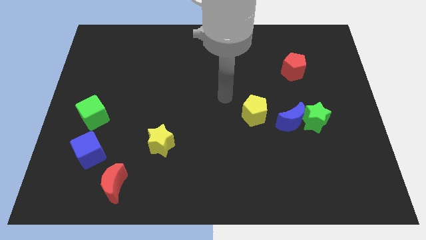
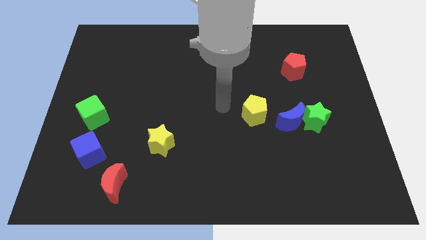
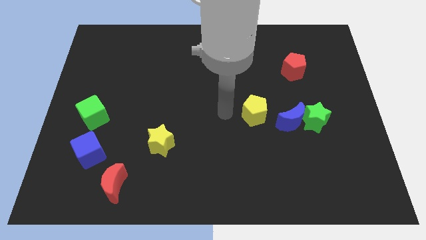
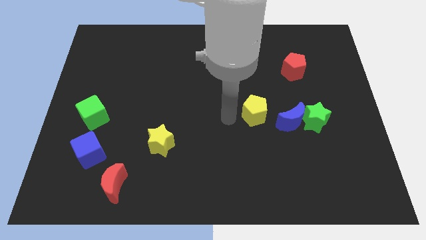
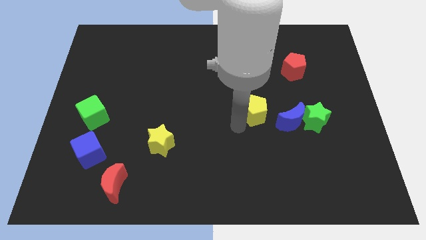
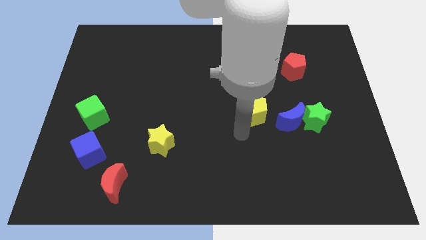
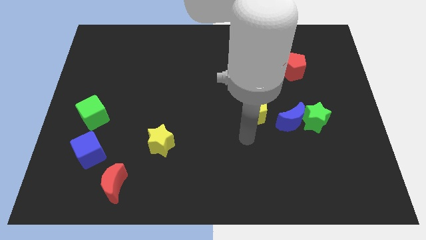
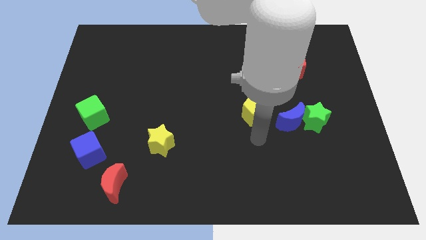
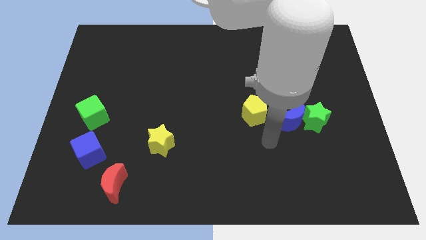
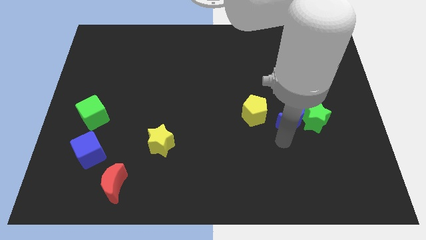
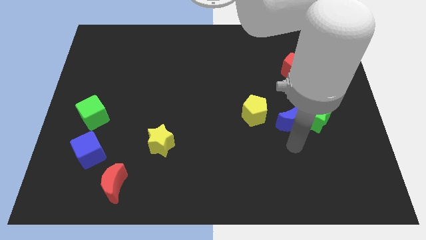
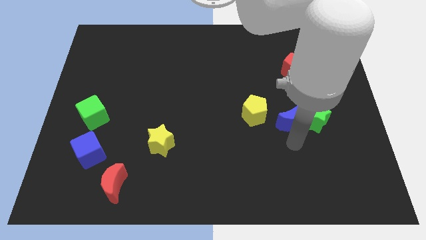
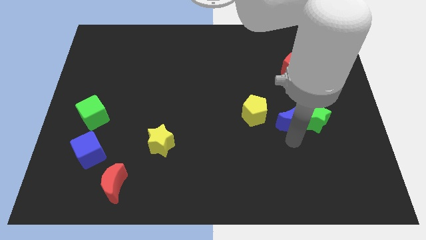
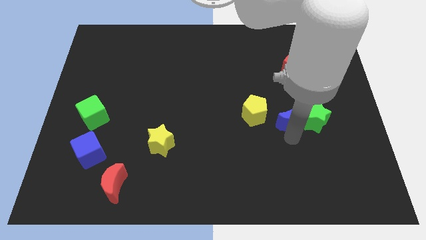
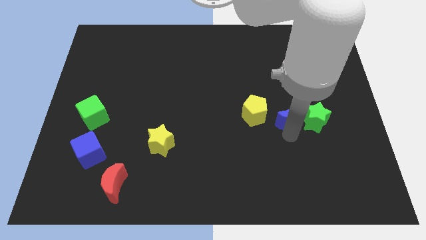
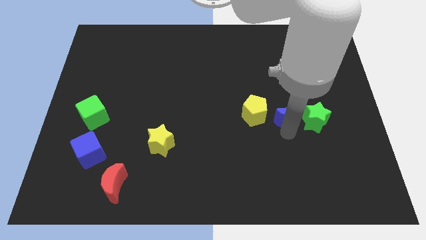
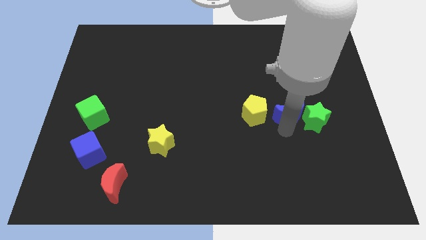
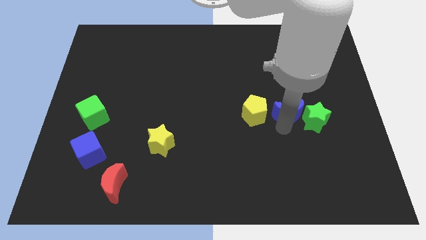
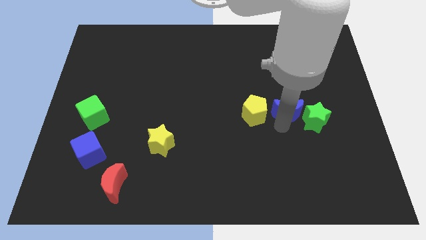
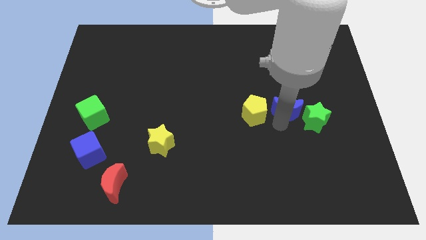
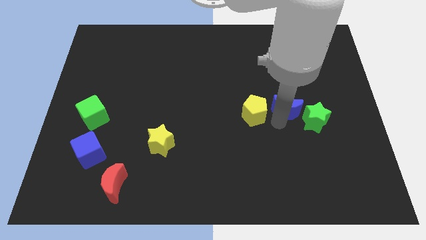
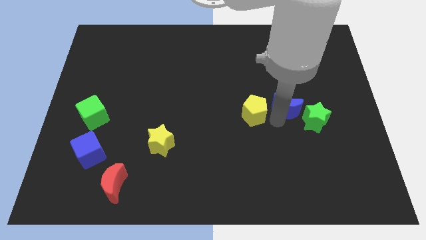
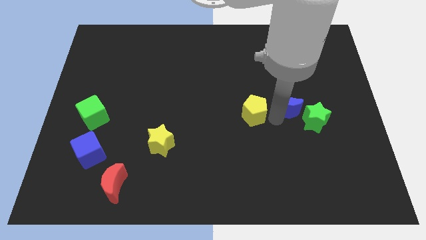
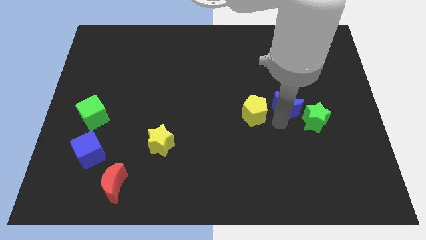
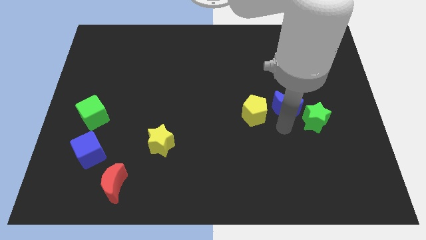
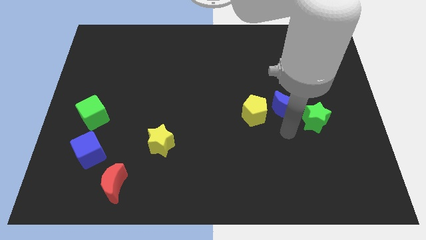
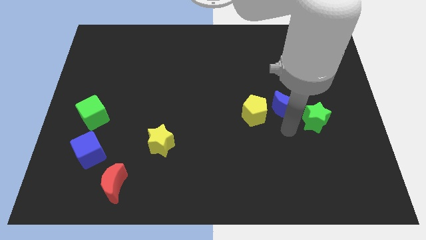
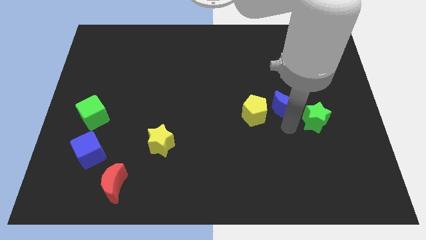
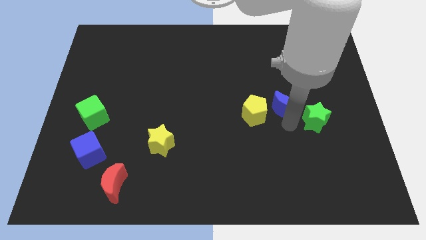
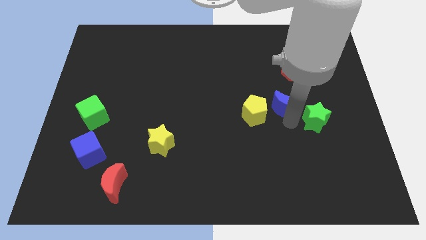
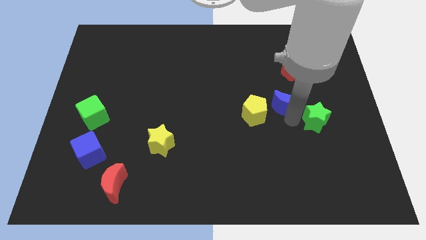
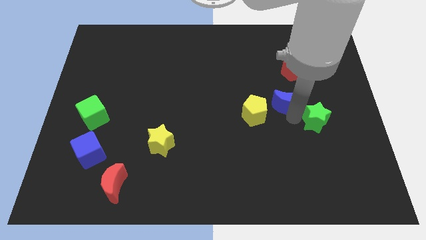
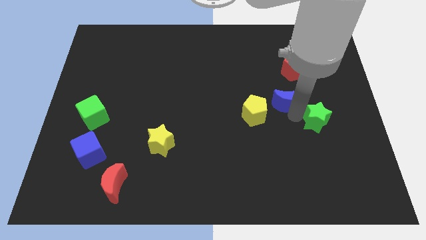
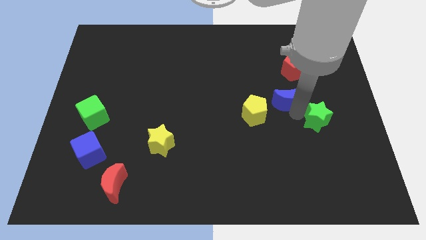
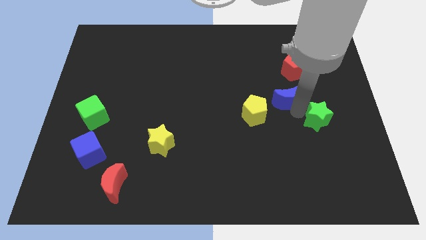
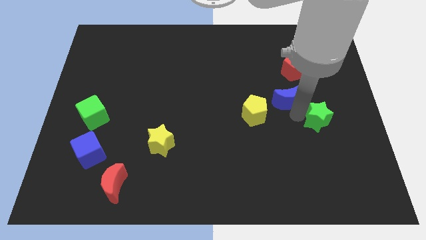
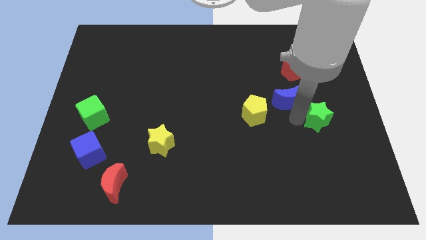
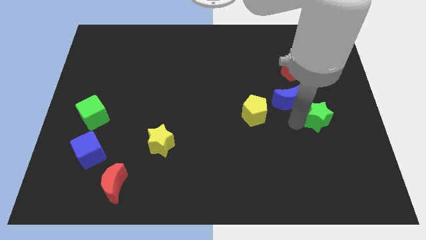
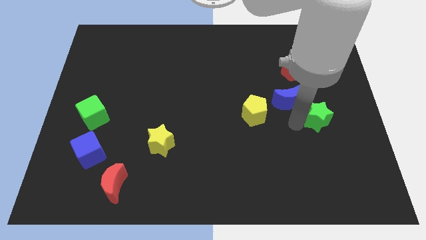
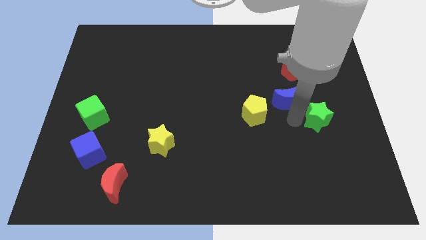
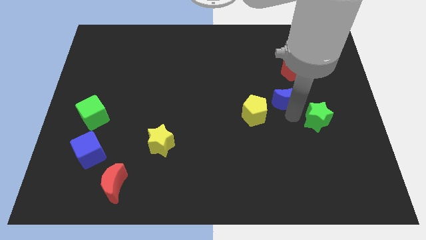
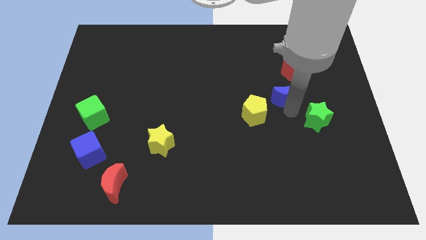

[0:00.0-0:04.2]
slightly slide the blue moon upwards

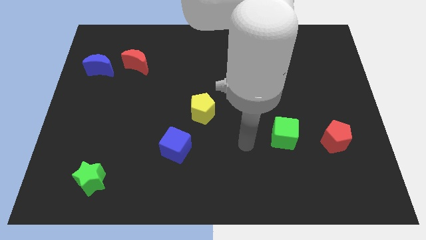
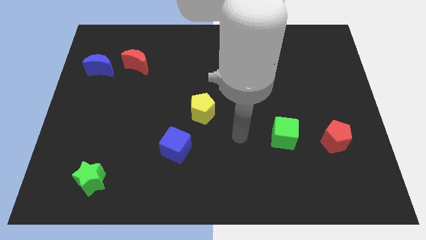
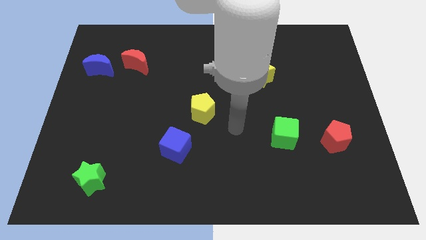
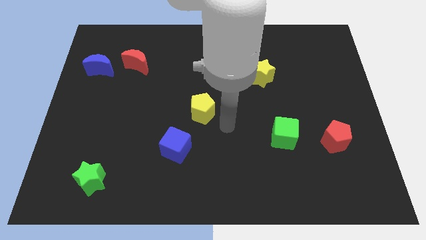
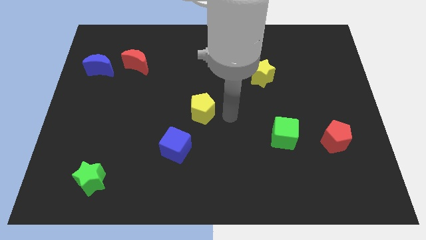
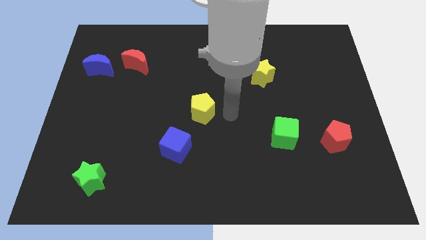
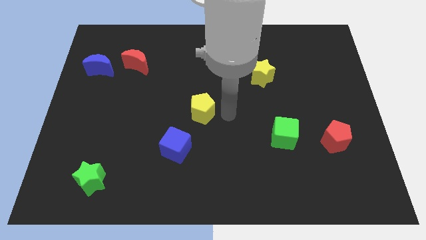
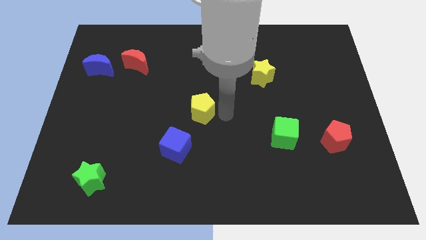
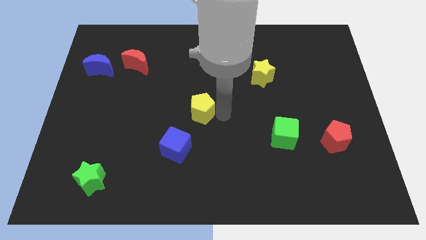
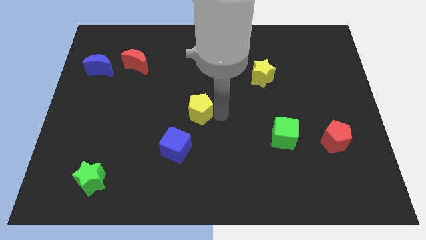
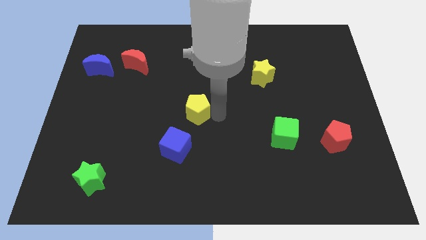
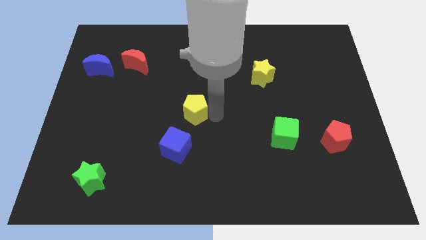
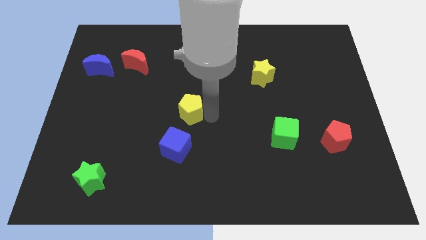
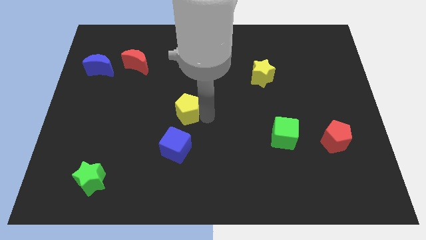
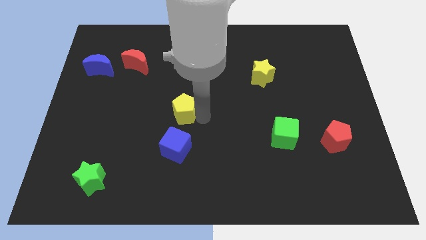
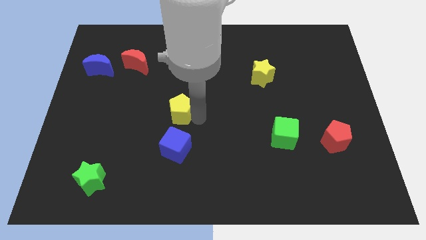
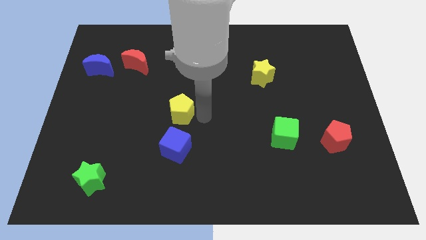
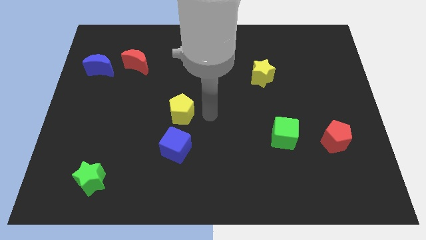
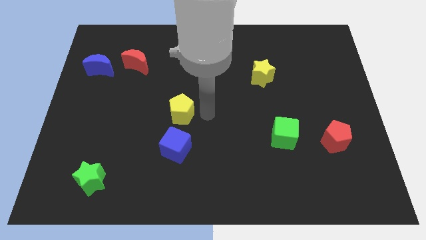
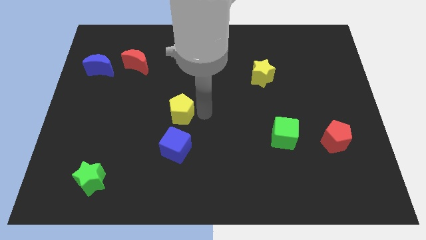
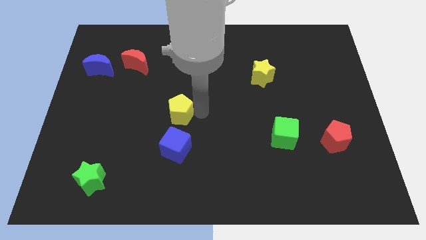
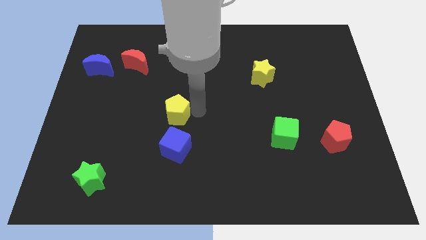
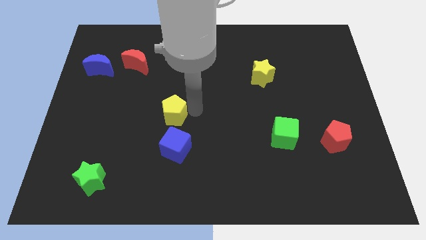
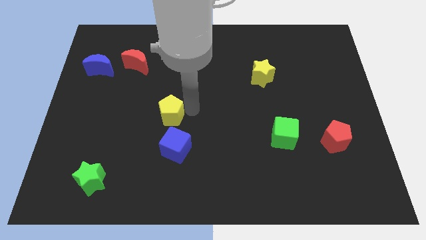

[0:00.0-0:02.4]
move the yellow pentagon left a bit

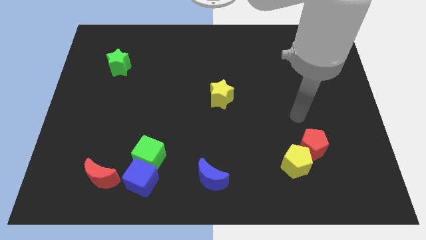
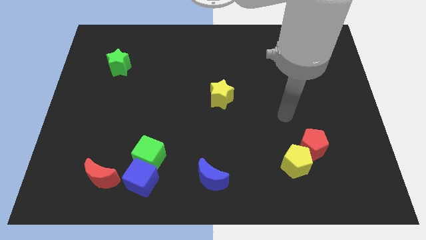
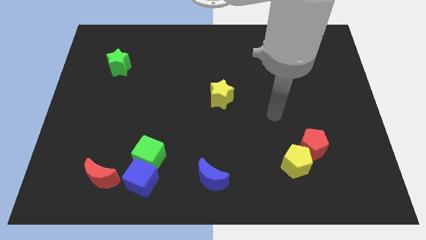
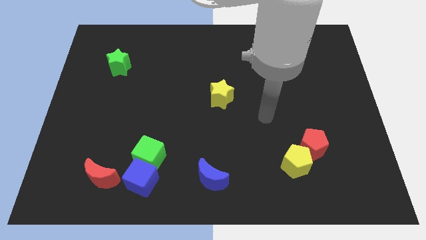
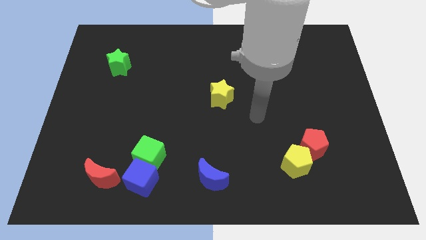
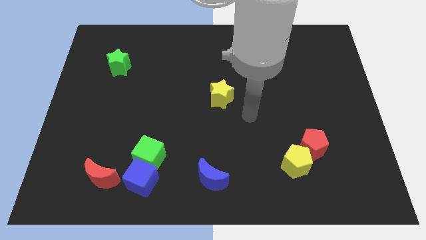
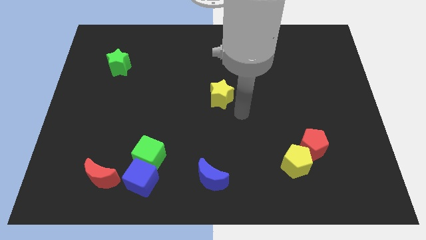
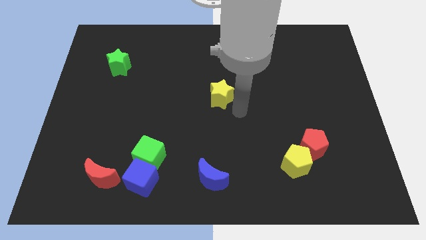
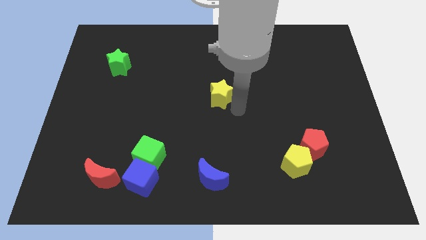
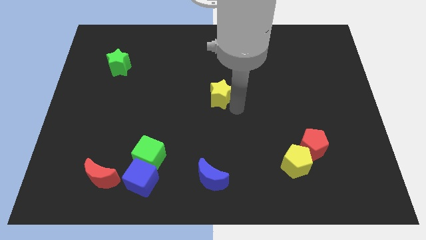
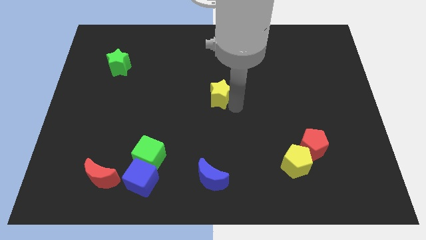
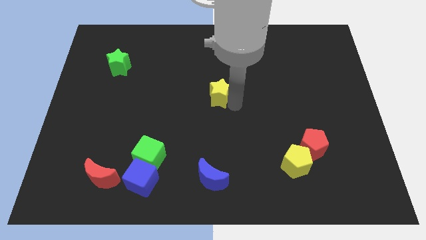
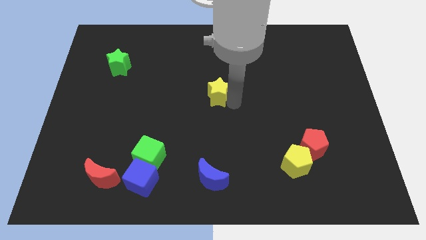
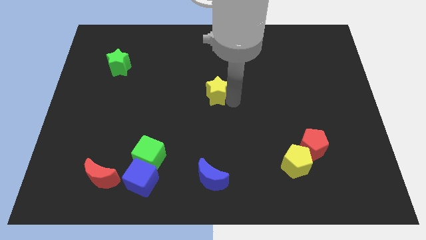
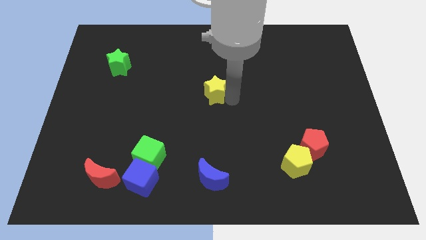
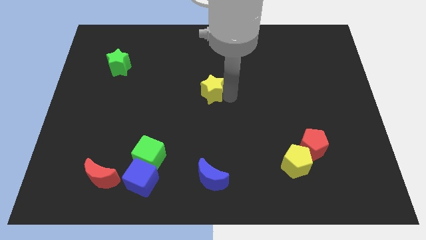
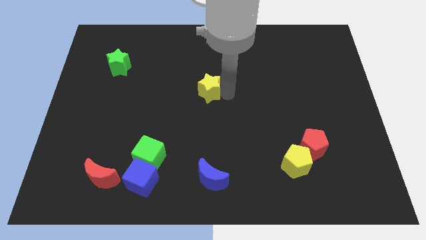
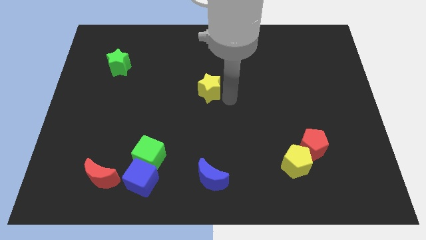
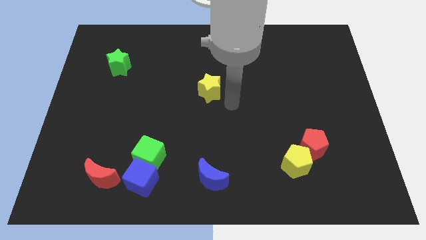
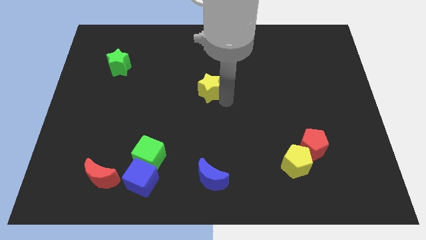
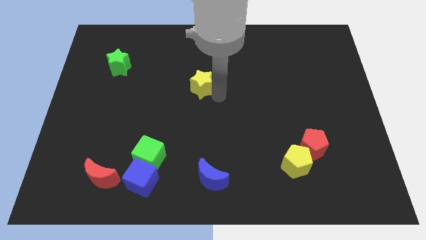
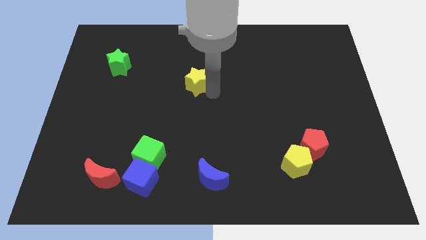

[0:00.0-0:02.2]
slightly push the yellow star upwards and then to the left
